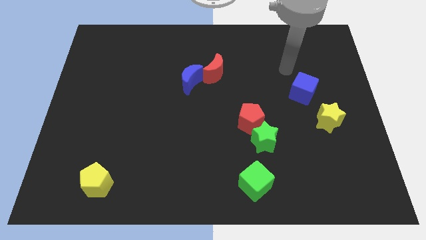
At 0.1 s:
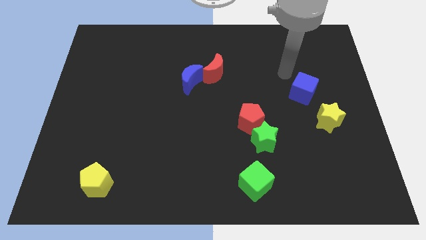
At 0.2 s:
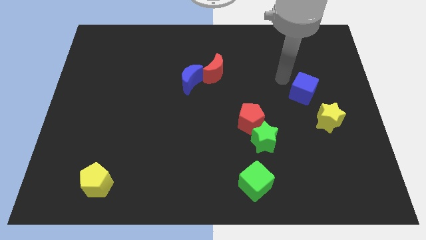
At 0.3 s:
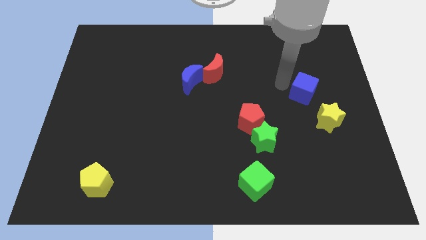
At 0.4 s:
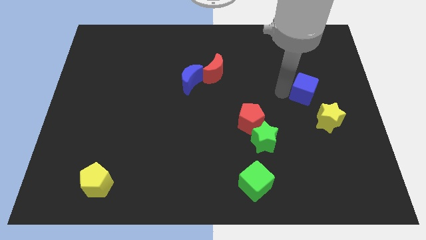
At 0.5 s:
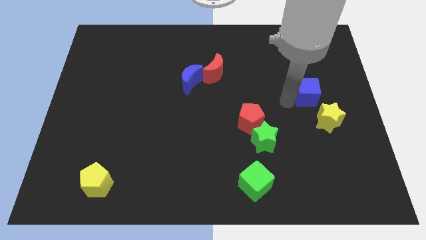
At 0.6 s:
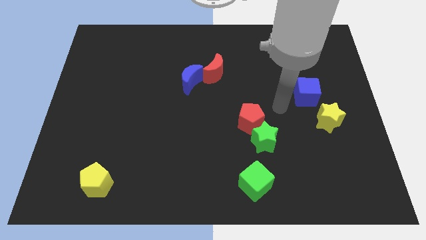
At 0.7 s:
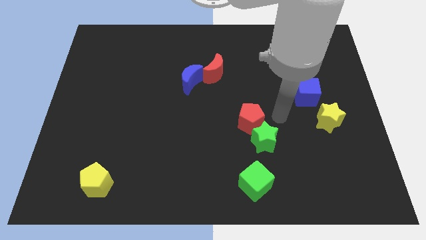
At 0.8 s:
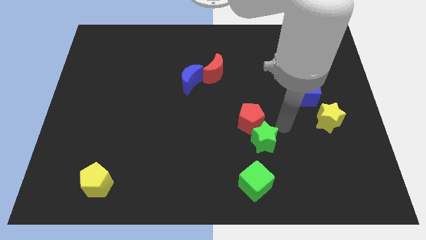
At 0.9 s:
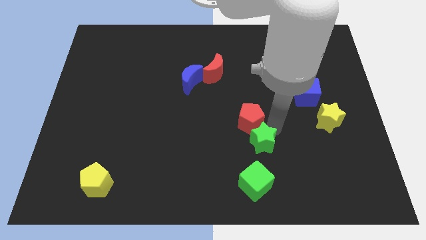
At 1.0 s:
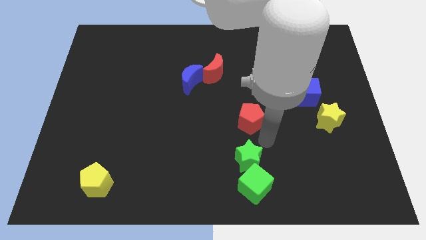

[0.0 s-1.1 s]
separate the red pentagon from the green star

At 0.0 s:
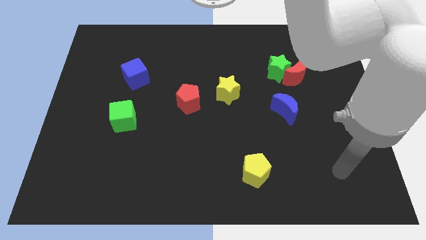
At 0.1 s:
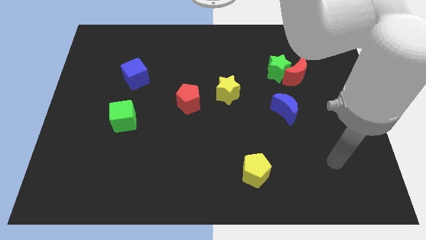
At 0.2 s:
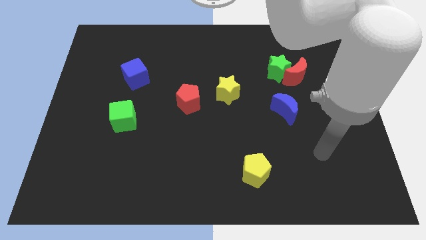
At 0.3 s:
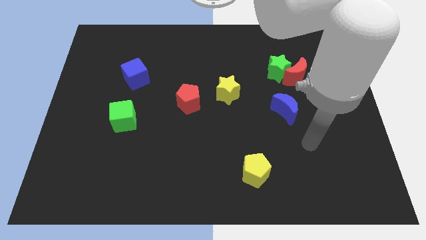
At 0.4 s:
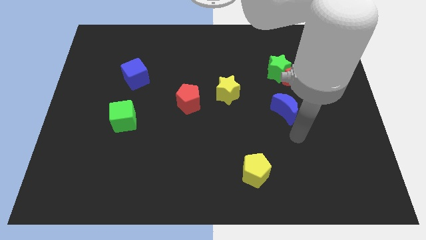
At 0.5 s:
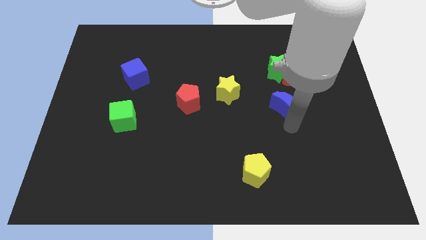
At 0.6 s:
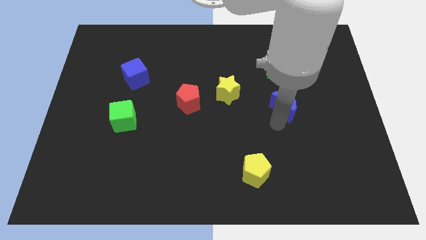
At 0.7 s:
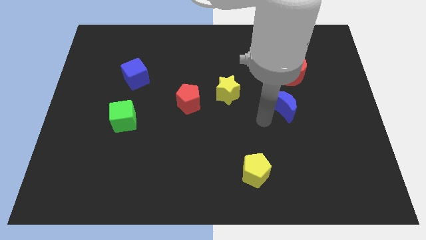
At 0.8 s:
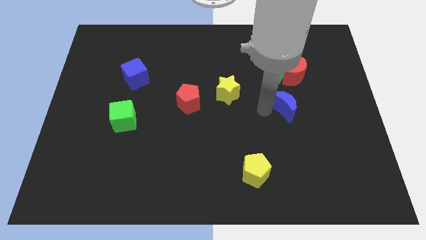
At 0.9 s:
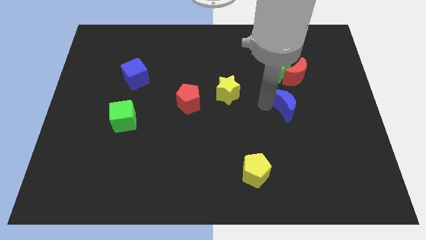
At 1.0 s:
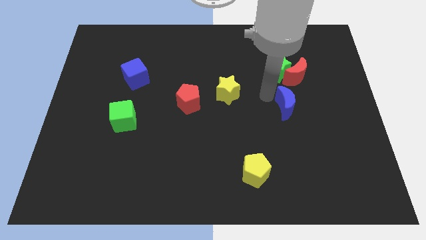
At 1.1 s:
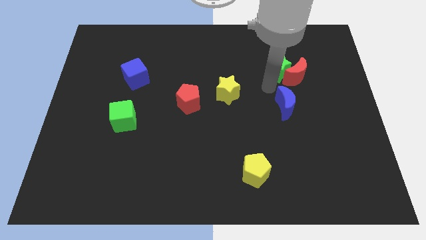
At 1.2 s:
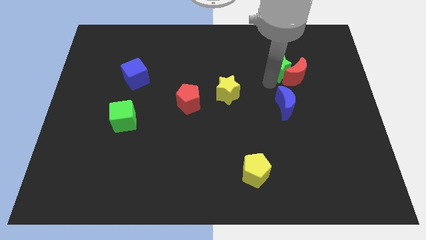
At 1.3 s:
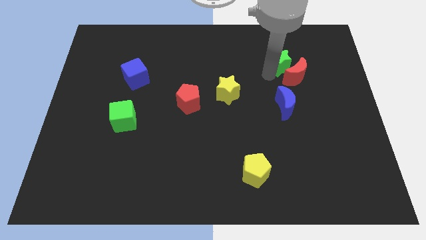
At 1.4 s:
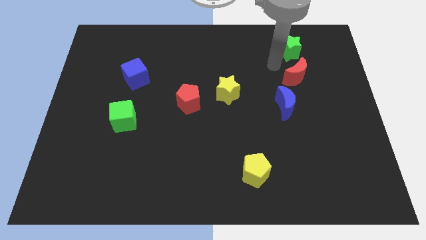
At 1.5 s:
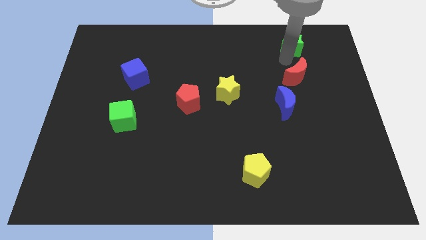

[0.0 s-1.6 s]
separate the red moon from the green star

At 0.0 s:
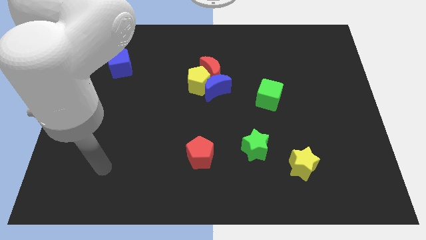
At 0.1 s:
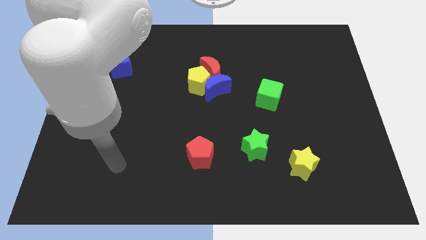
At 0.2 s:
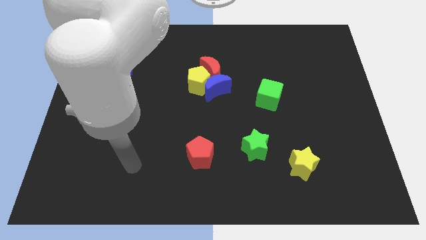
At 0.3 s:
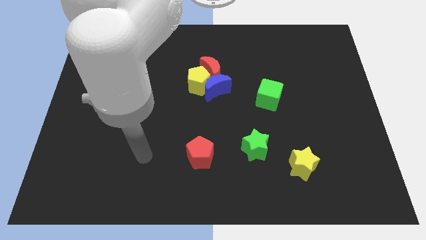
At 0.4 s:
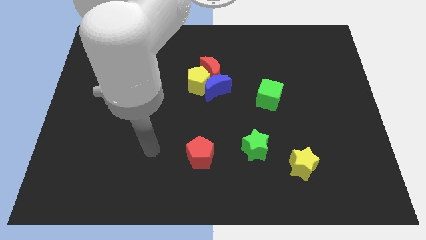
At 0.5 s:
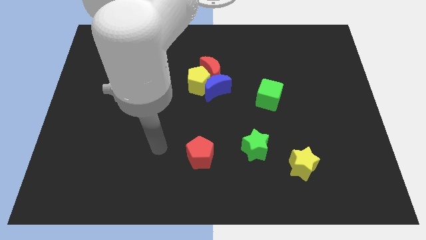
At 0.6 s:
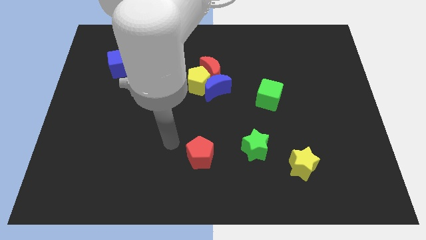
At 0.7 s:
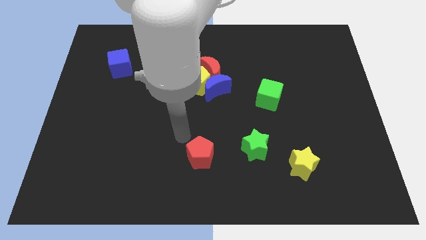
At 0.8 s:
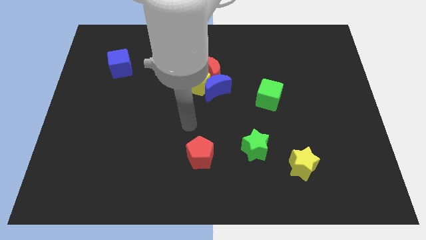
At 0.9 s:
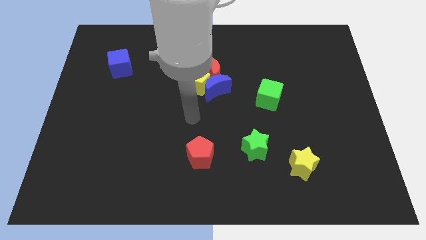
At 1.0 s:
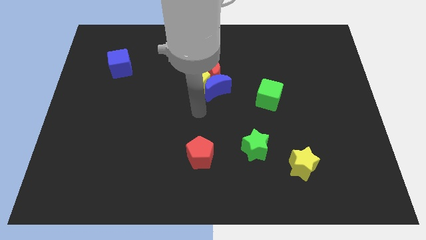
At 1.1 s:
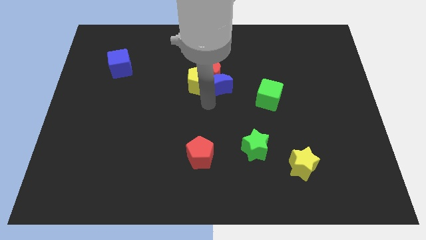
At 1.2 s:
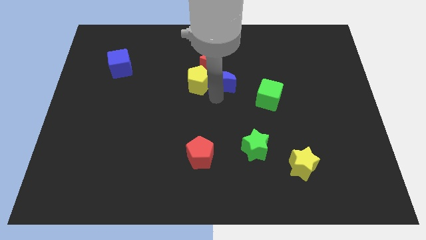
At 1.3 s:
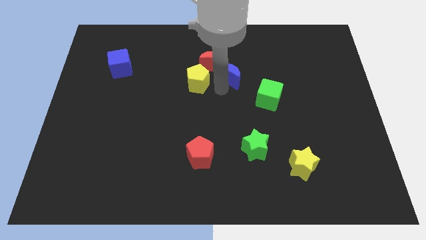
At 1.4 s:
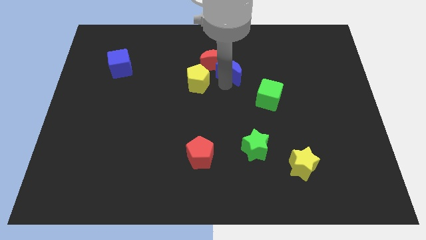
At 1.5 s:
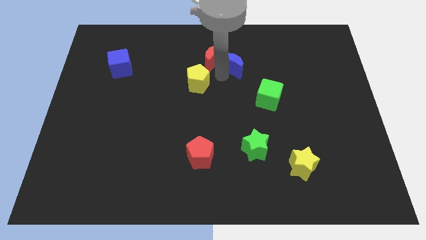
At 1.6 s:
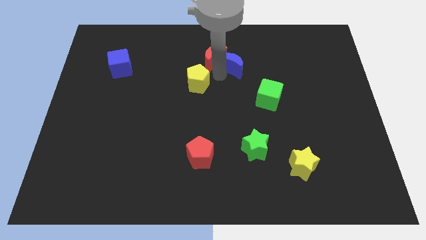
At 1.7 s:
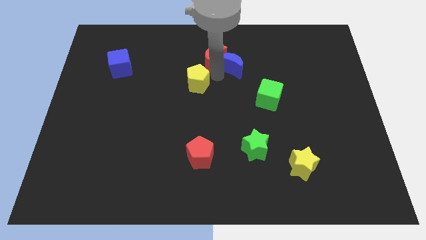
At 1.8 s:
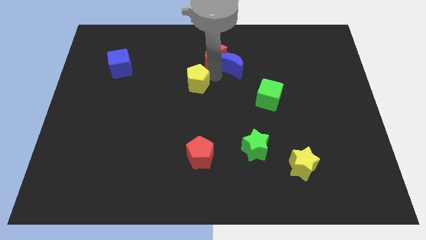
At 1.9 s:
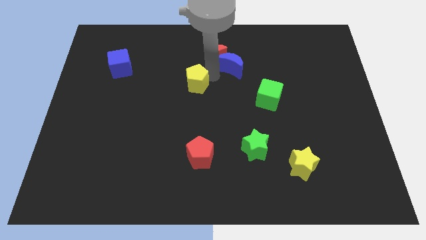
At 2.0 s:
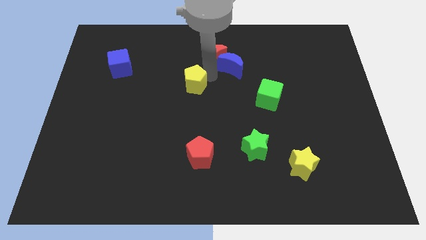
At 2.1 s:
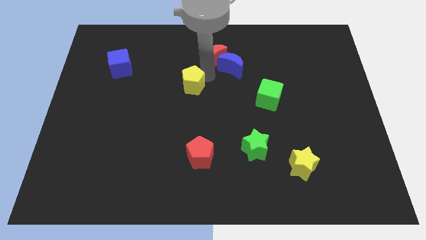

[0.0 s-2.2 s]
separate the yellow pentagon from the blue moon and red moon

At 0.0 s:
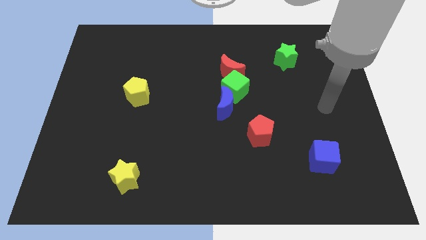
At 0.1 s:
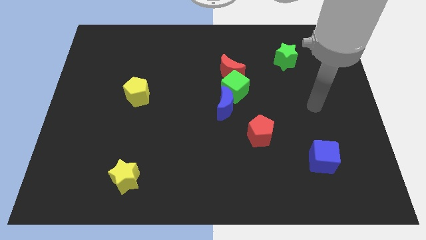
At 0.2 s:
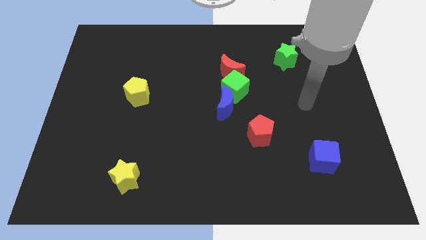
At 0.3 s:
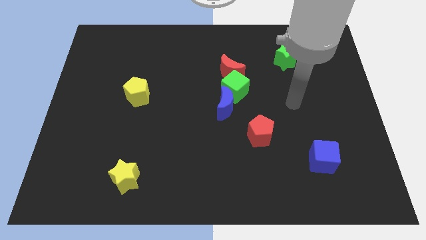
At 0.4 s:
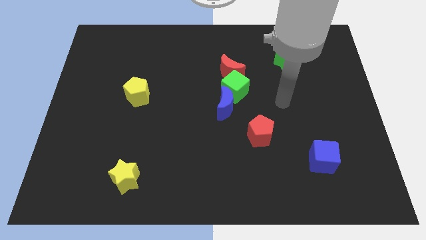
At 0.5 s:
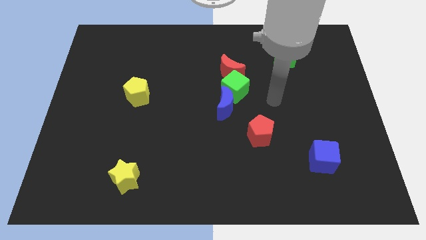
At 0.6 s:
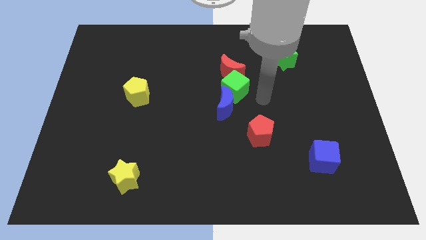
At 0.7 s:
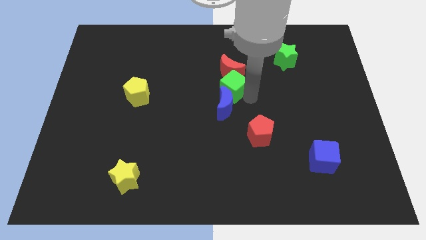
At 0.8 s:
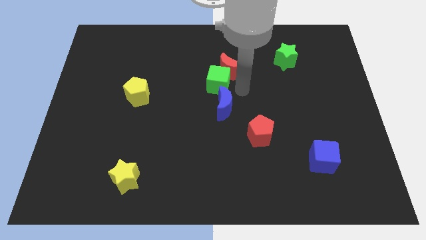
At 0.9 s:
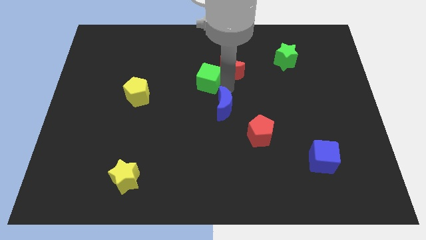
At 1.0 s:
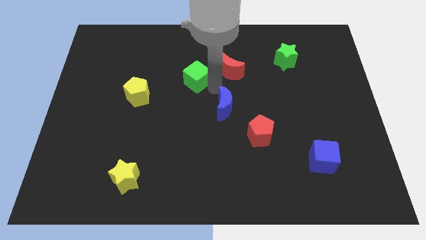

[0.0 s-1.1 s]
move the blue moon away from the green cube

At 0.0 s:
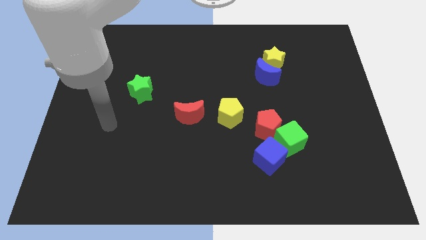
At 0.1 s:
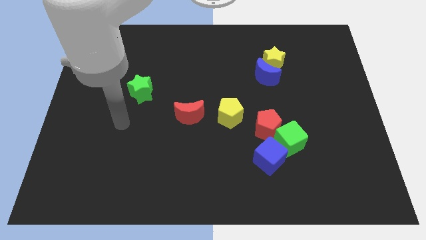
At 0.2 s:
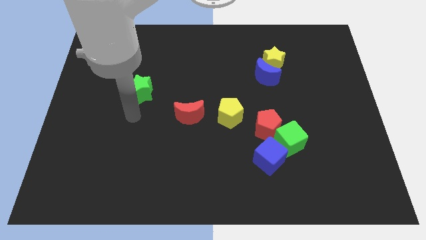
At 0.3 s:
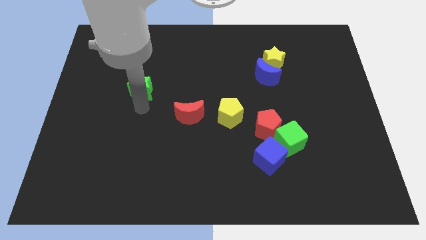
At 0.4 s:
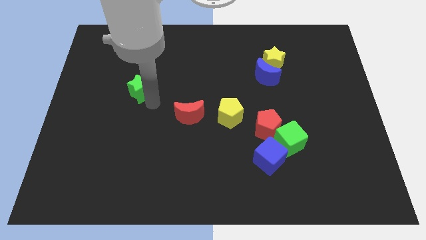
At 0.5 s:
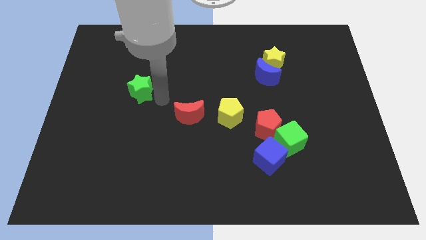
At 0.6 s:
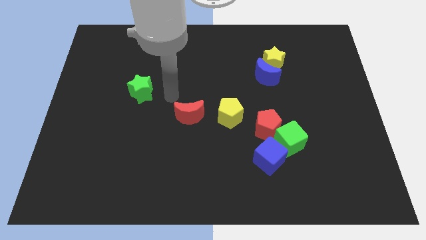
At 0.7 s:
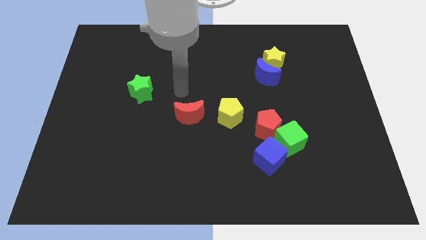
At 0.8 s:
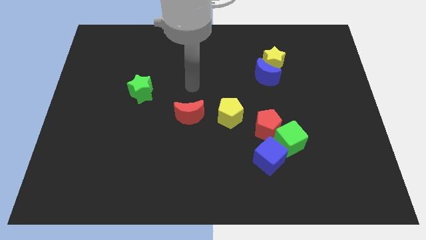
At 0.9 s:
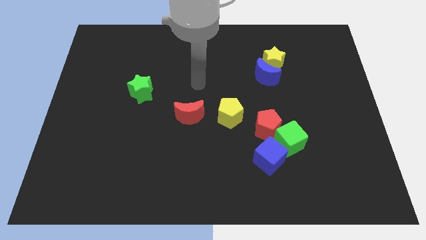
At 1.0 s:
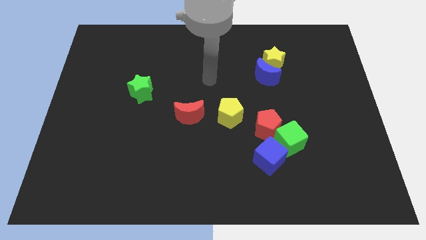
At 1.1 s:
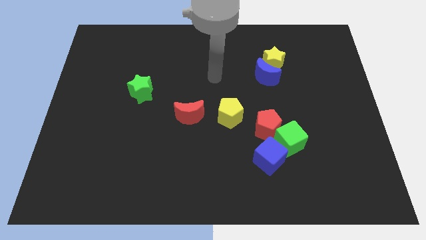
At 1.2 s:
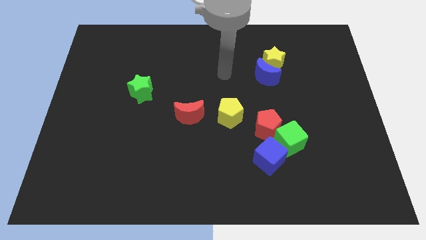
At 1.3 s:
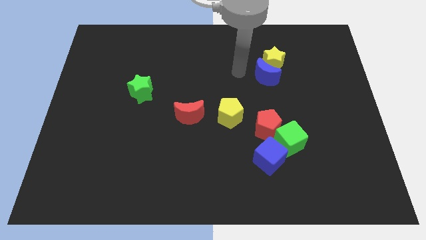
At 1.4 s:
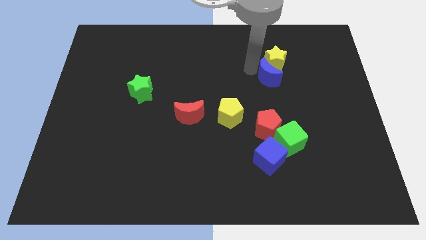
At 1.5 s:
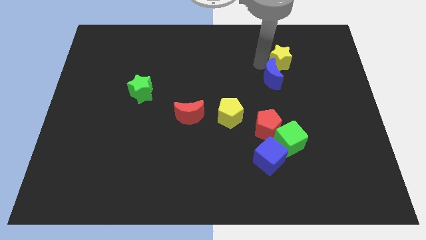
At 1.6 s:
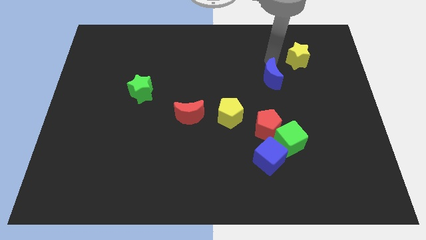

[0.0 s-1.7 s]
separate the blue moon from the yellow star

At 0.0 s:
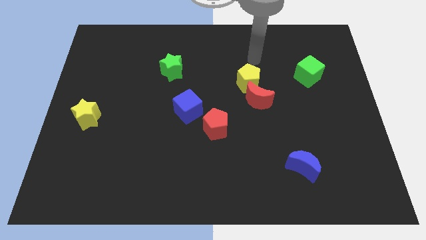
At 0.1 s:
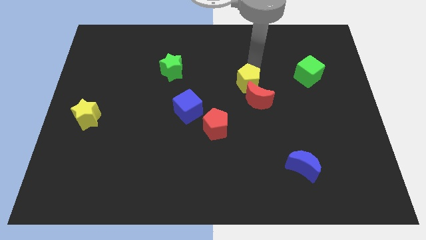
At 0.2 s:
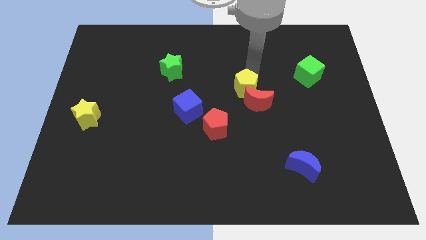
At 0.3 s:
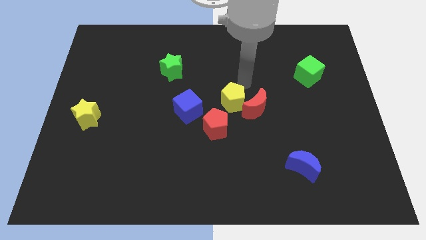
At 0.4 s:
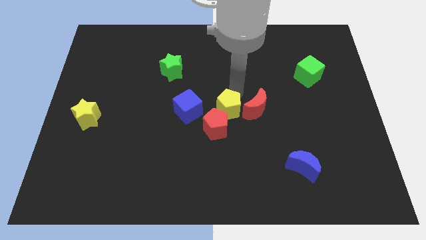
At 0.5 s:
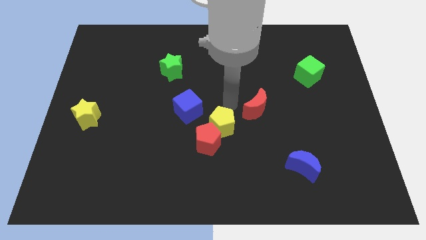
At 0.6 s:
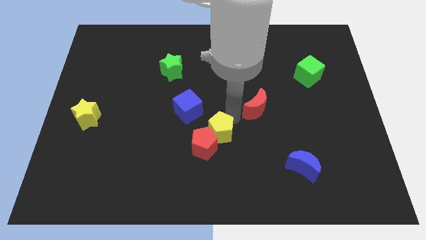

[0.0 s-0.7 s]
separate the red moon from the yellow pentagon

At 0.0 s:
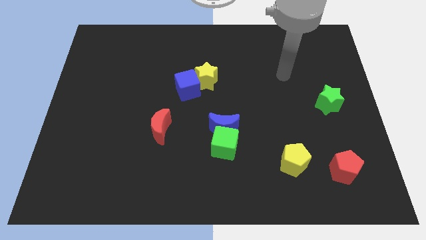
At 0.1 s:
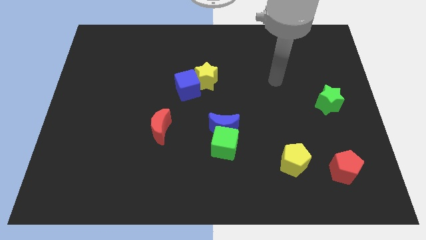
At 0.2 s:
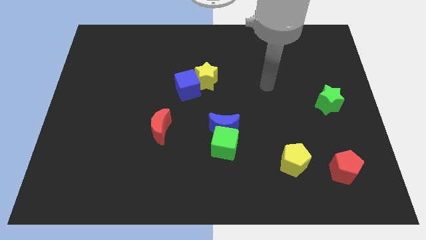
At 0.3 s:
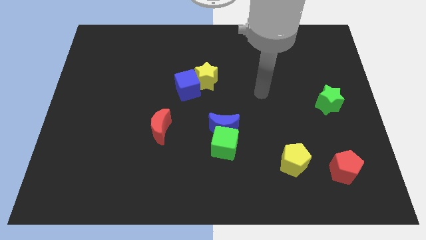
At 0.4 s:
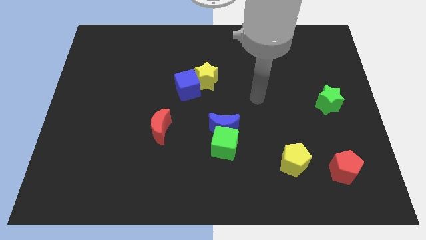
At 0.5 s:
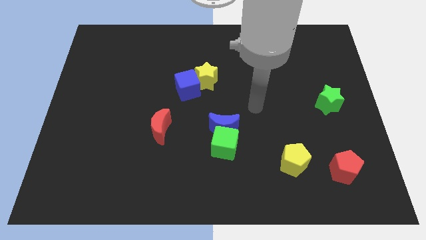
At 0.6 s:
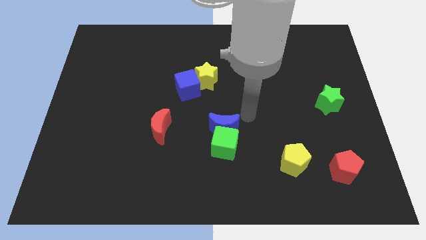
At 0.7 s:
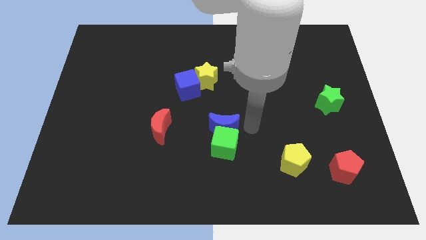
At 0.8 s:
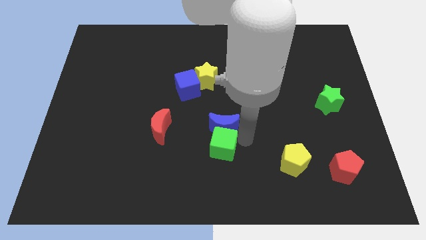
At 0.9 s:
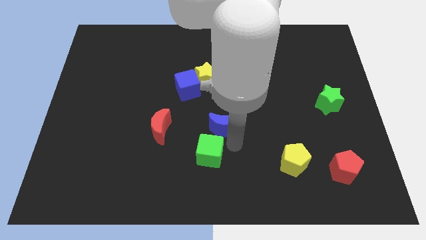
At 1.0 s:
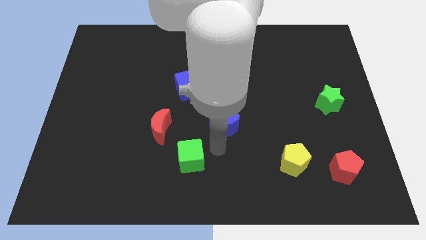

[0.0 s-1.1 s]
pull the blue moon apart from the green cube
